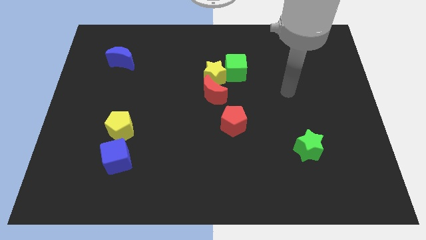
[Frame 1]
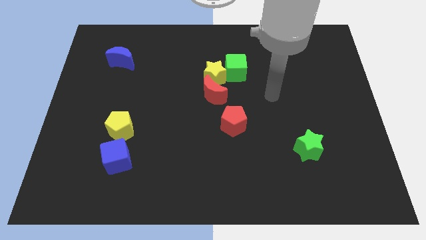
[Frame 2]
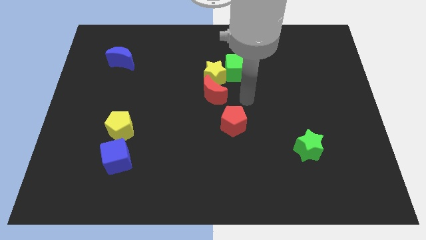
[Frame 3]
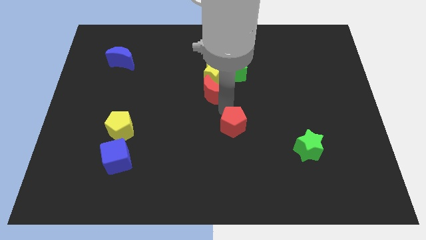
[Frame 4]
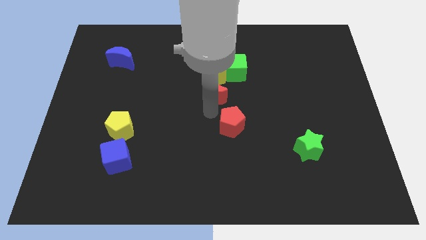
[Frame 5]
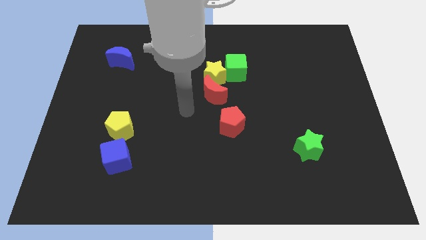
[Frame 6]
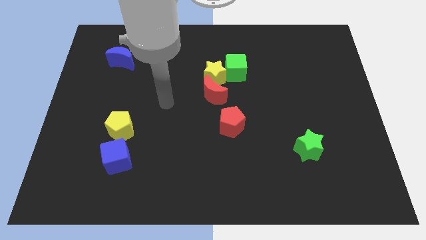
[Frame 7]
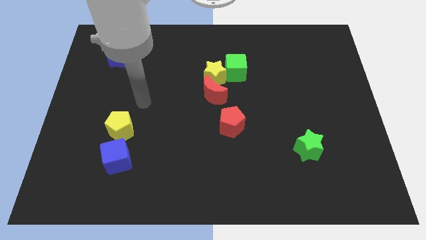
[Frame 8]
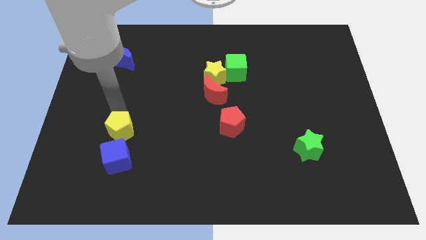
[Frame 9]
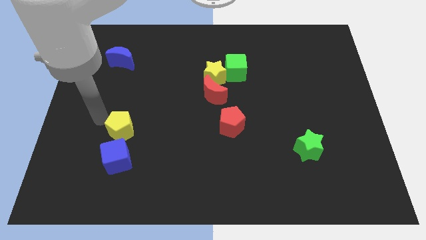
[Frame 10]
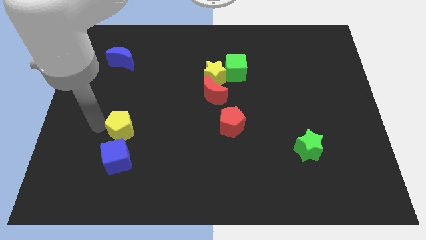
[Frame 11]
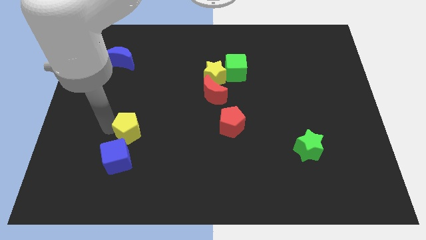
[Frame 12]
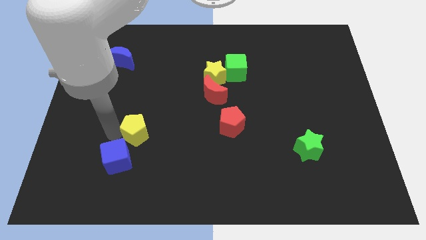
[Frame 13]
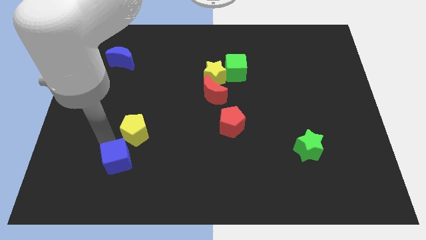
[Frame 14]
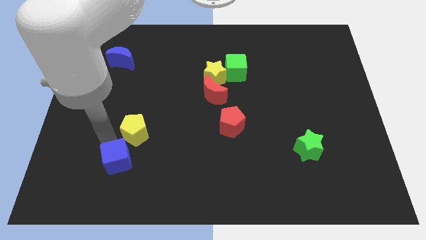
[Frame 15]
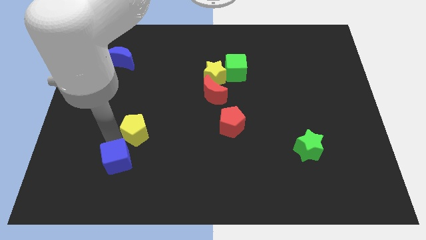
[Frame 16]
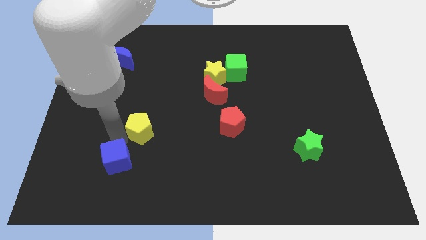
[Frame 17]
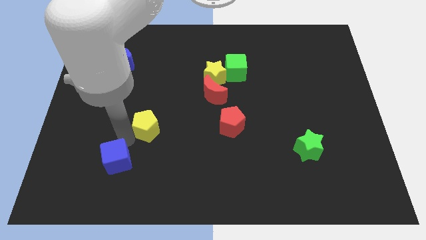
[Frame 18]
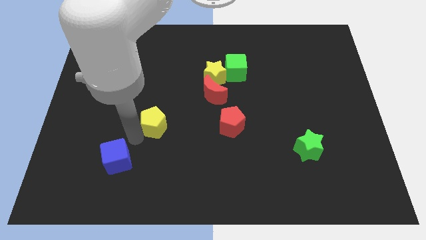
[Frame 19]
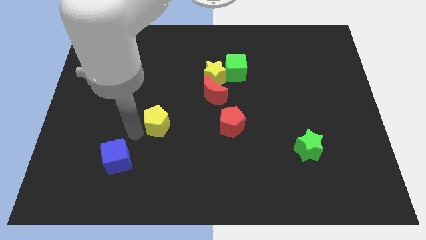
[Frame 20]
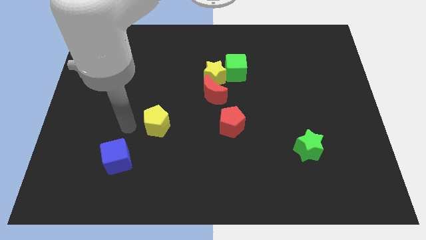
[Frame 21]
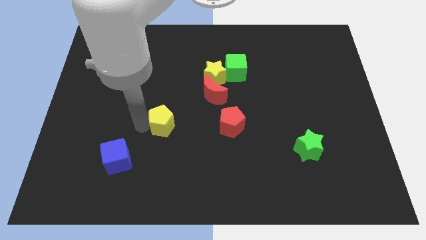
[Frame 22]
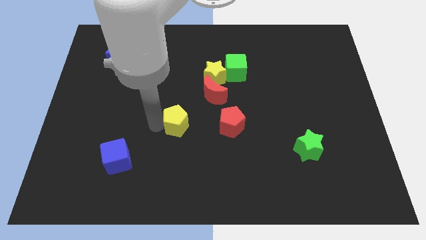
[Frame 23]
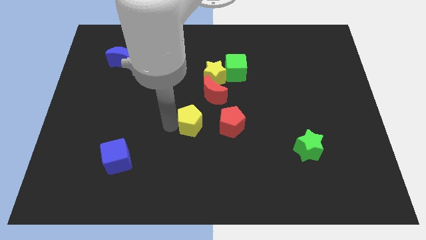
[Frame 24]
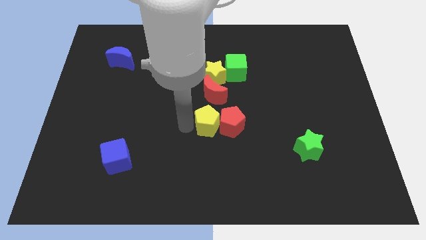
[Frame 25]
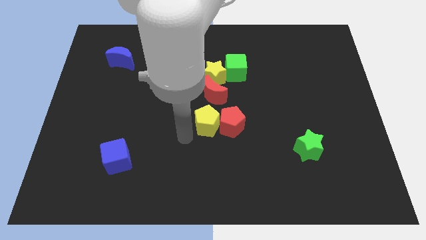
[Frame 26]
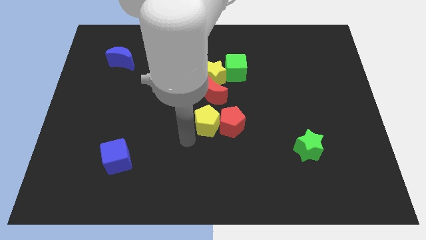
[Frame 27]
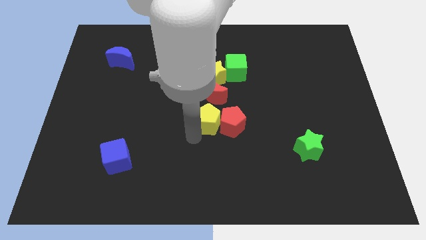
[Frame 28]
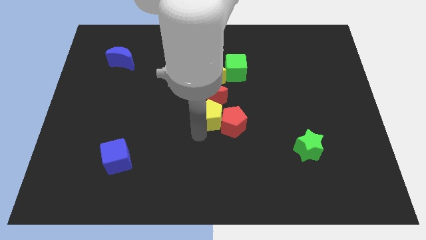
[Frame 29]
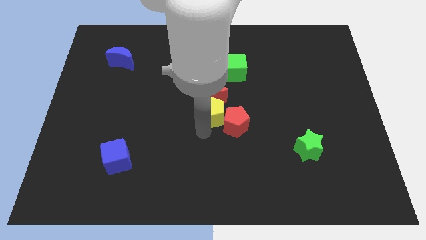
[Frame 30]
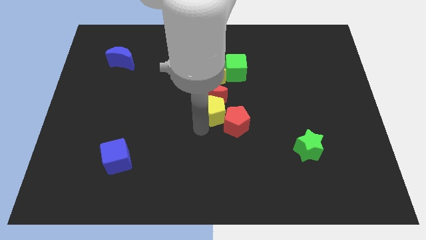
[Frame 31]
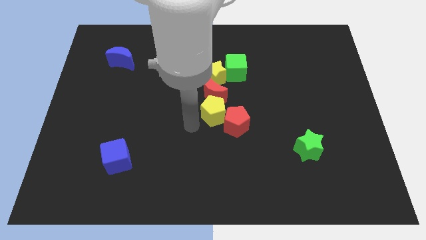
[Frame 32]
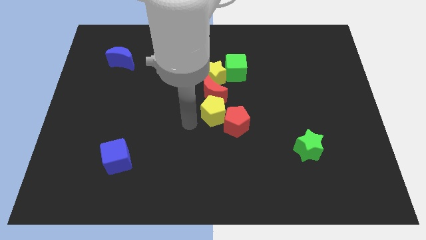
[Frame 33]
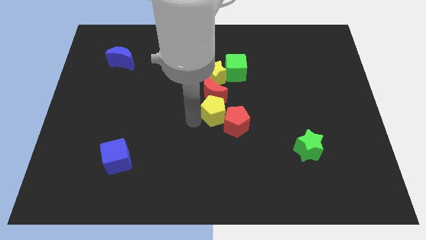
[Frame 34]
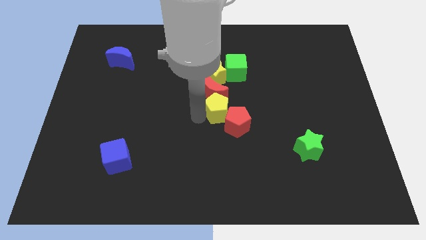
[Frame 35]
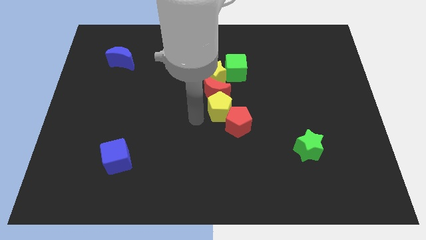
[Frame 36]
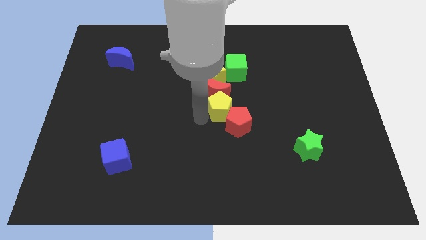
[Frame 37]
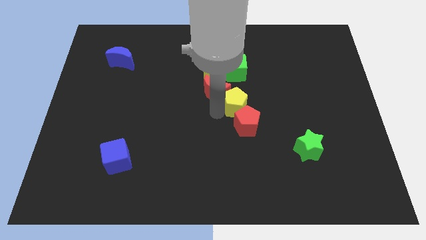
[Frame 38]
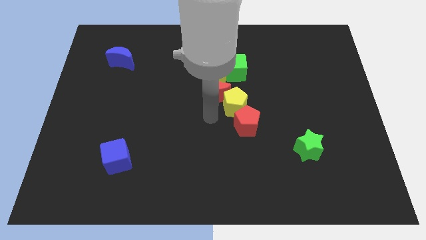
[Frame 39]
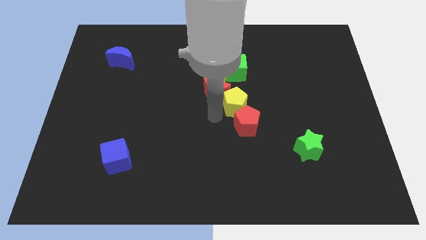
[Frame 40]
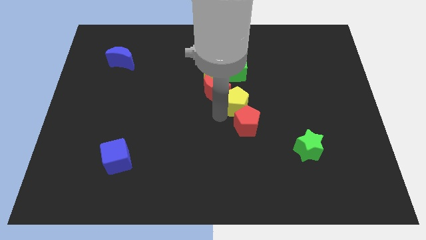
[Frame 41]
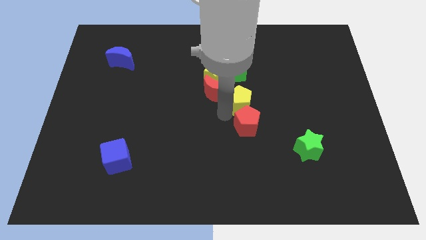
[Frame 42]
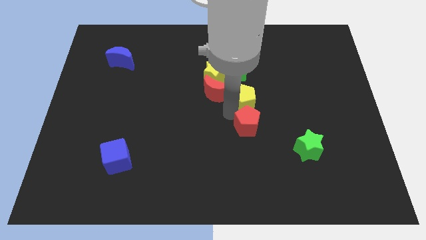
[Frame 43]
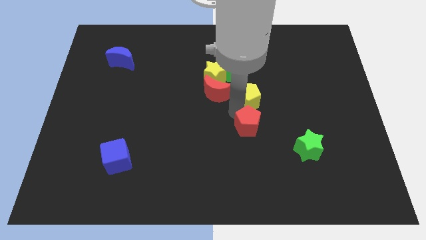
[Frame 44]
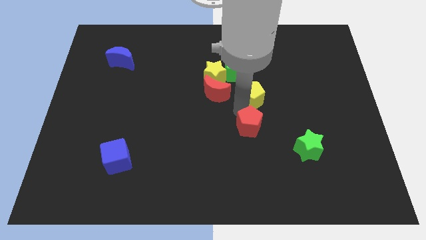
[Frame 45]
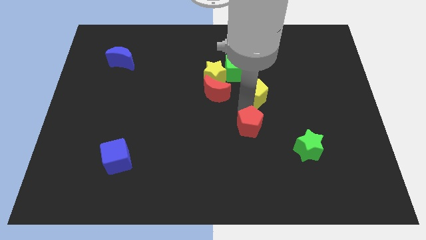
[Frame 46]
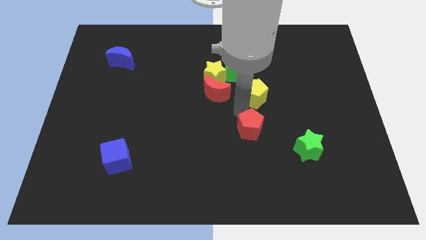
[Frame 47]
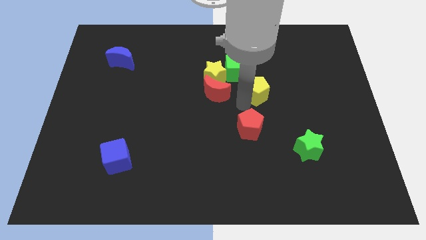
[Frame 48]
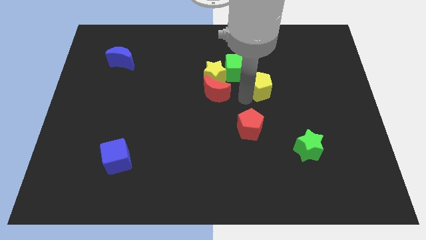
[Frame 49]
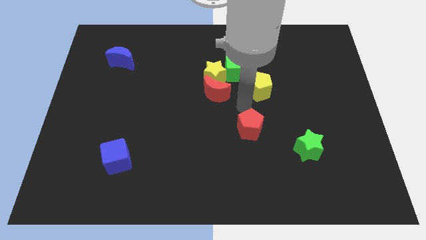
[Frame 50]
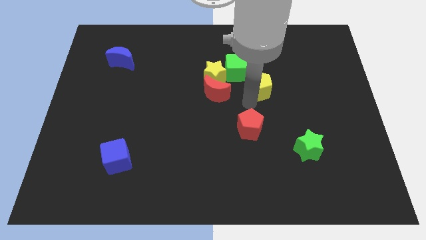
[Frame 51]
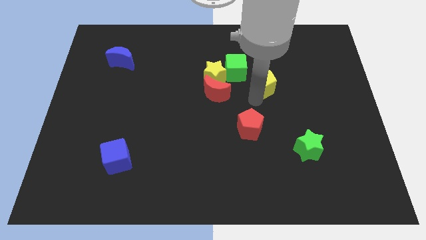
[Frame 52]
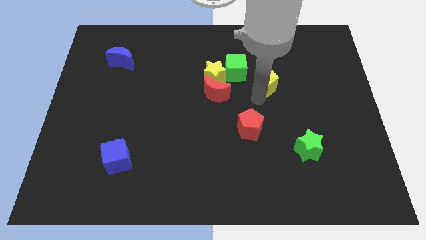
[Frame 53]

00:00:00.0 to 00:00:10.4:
put the yellow pentagon right of the green cube

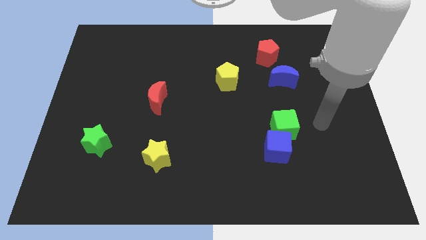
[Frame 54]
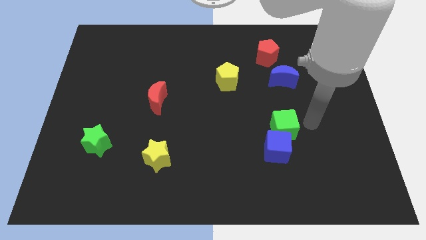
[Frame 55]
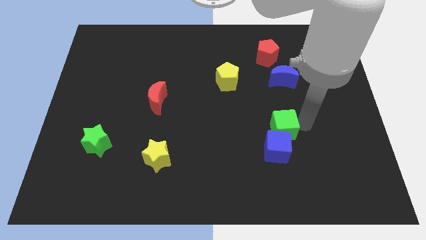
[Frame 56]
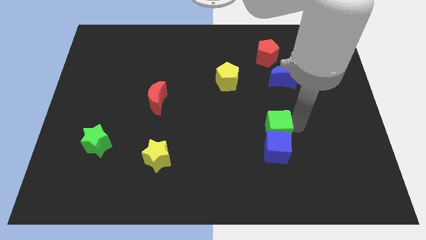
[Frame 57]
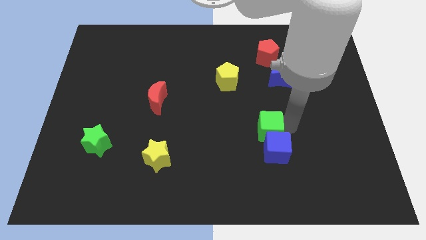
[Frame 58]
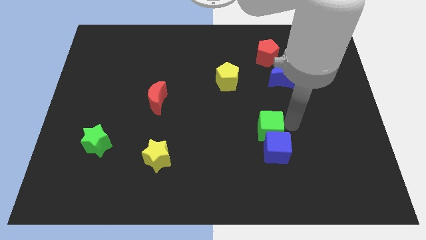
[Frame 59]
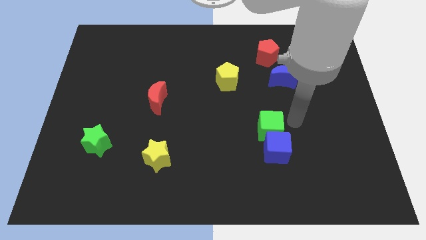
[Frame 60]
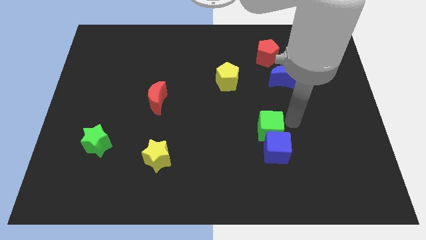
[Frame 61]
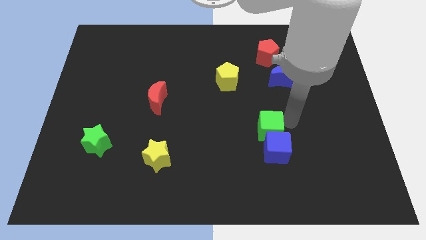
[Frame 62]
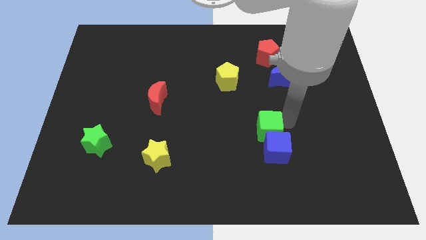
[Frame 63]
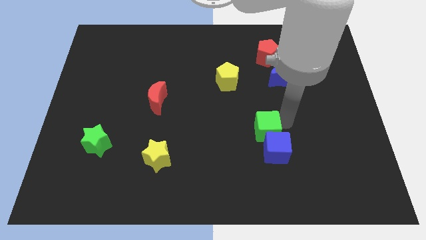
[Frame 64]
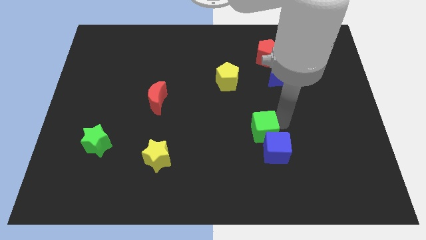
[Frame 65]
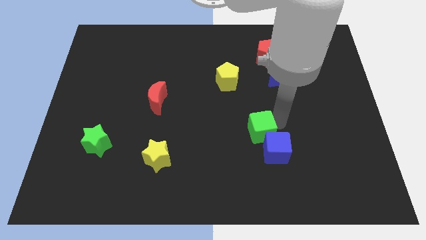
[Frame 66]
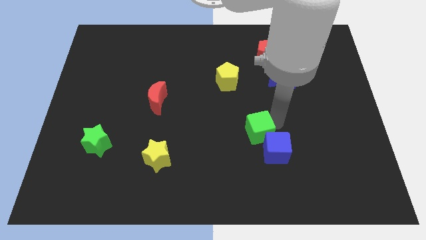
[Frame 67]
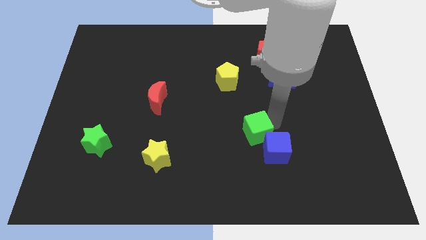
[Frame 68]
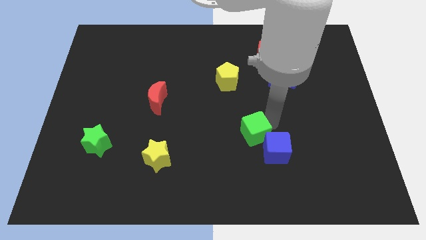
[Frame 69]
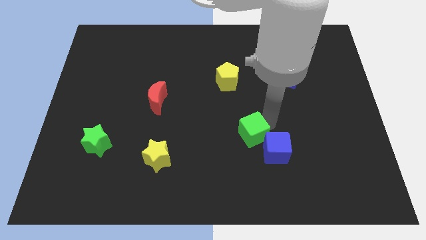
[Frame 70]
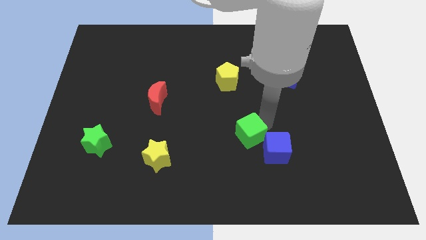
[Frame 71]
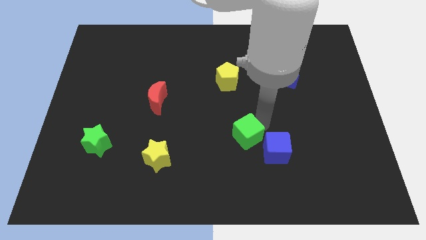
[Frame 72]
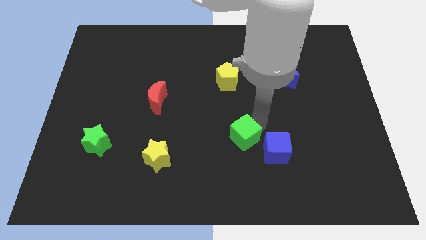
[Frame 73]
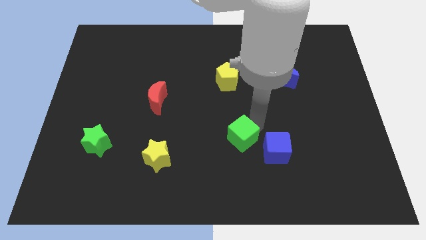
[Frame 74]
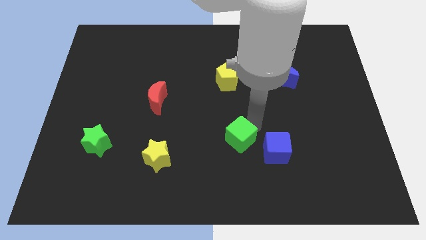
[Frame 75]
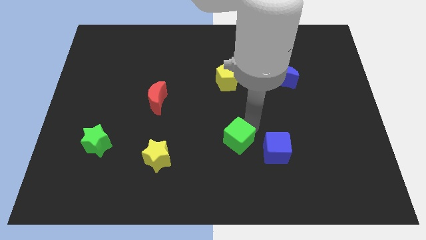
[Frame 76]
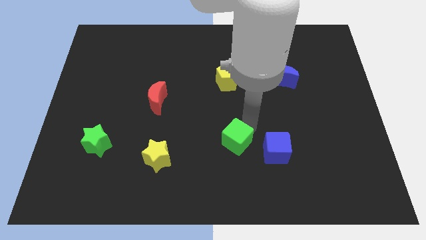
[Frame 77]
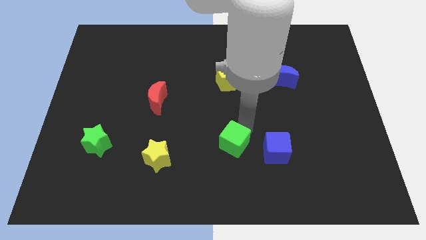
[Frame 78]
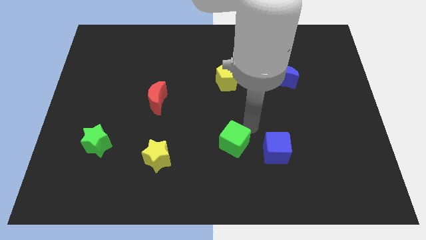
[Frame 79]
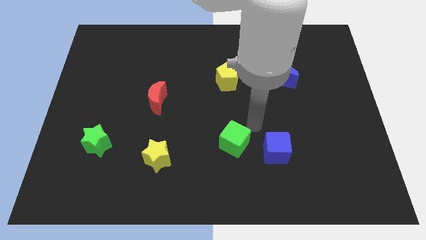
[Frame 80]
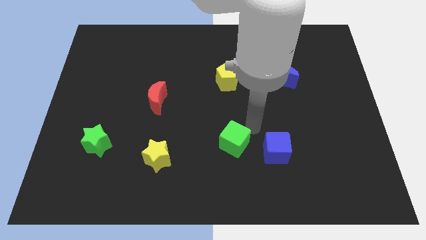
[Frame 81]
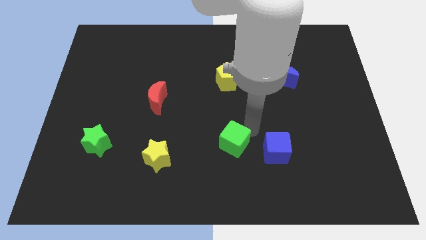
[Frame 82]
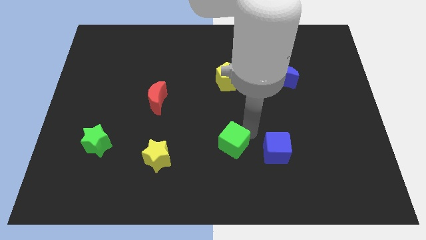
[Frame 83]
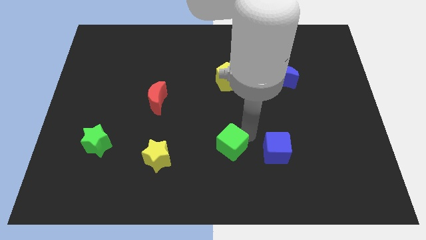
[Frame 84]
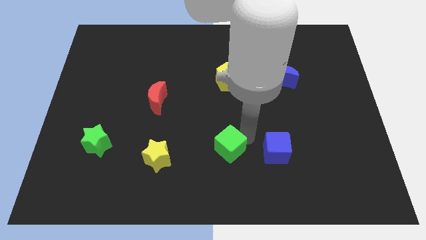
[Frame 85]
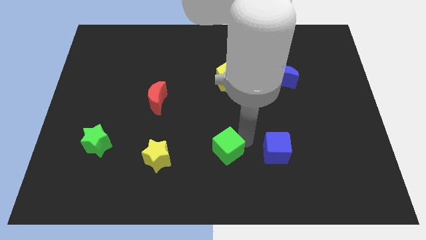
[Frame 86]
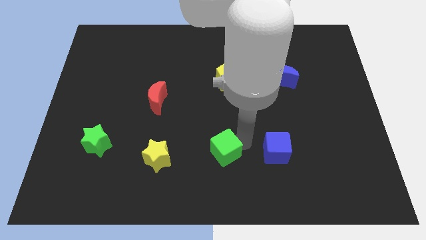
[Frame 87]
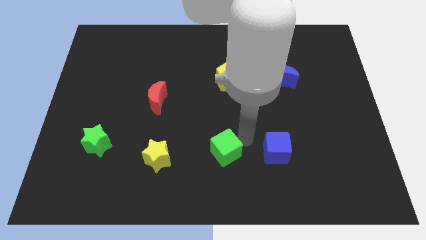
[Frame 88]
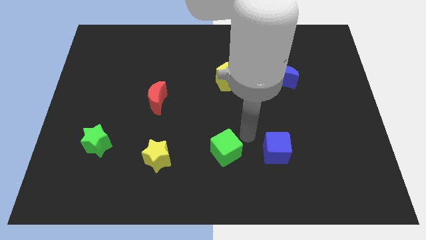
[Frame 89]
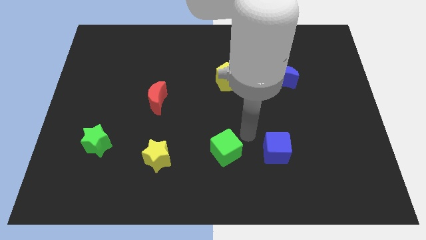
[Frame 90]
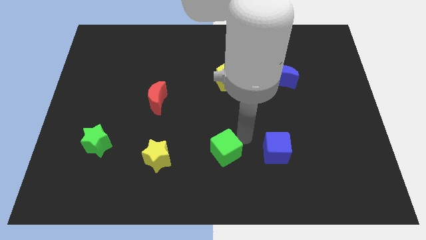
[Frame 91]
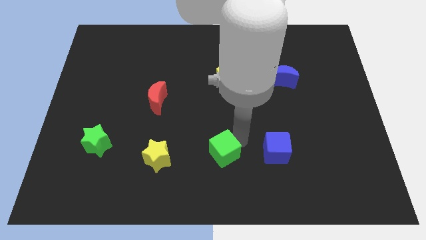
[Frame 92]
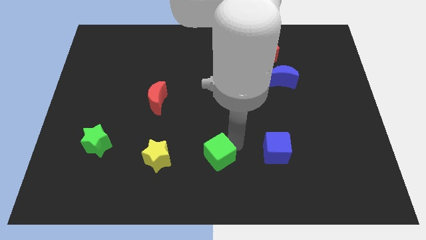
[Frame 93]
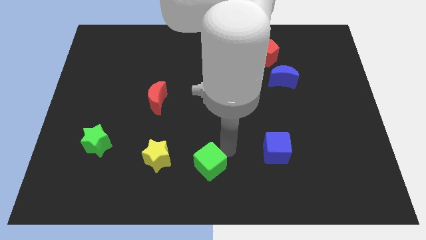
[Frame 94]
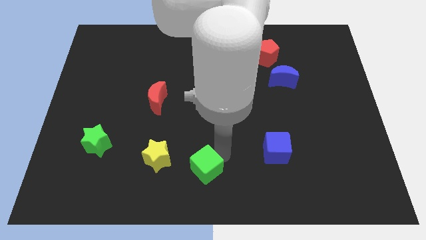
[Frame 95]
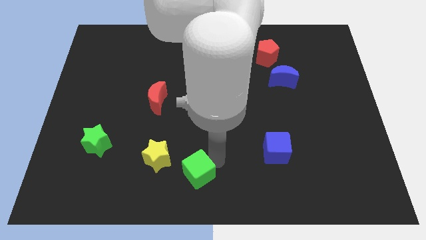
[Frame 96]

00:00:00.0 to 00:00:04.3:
move the green cube diagonally down and to the right of the yellow star
